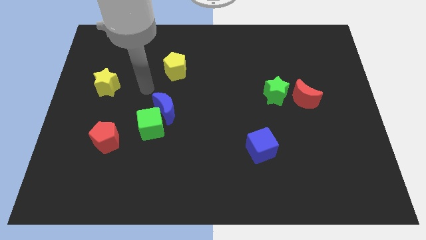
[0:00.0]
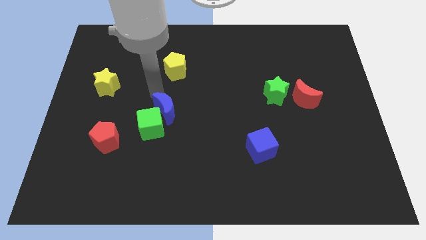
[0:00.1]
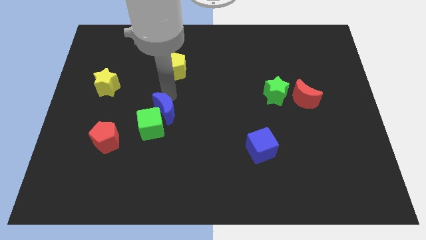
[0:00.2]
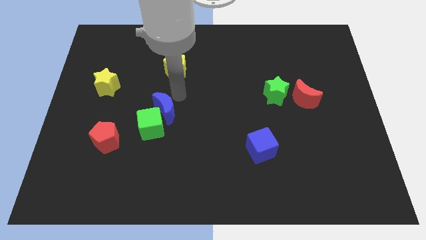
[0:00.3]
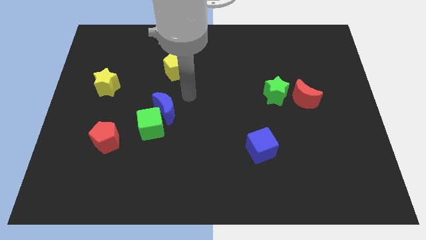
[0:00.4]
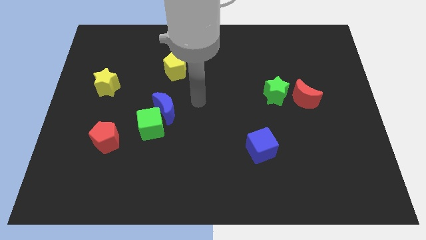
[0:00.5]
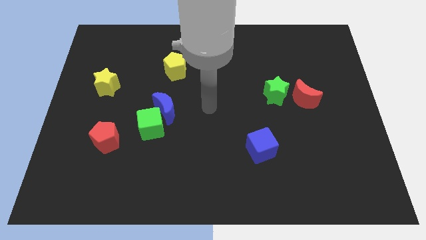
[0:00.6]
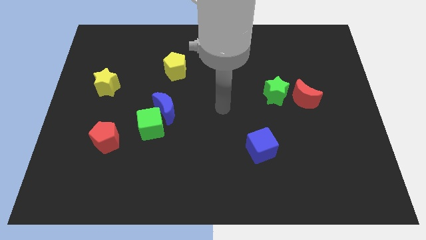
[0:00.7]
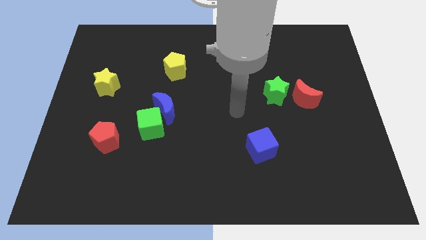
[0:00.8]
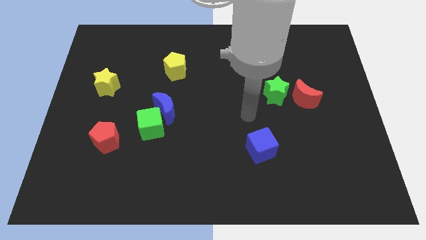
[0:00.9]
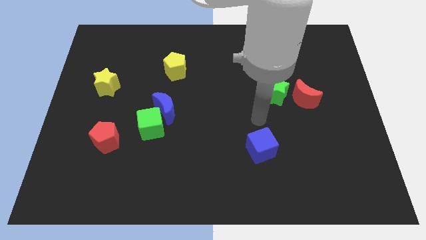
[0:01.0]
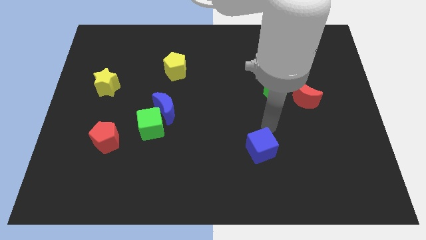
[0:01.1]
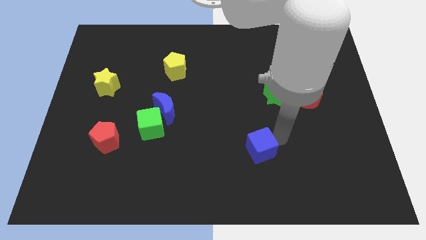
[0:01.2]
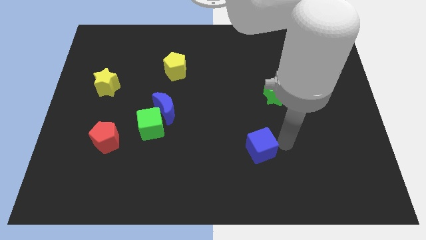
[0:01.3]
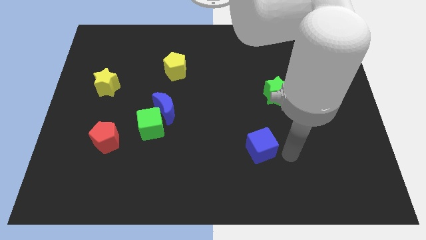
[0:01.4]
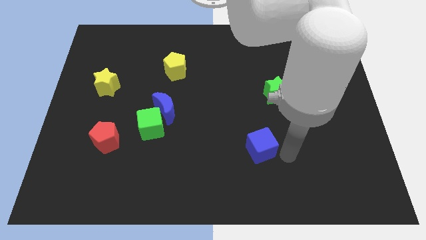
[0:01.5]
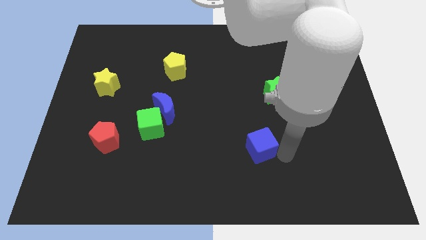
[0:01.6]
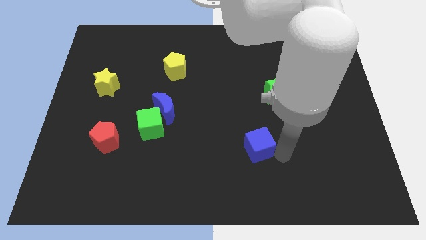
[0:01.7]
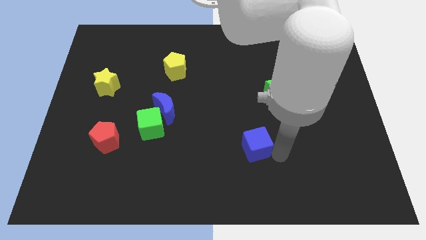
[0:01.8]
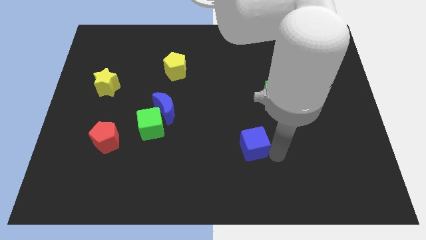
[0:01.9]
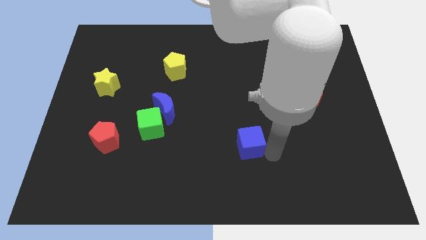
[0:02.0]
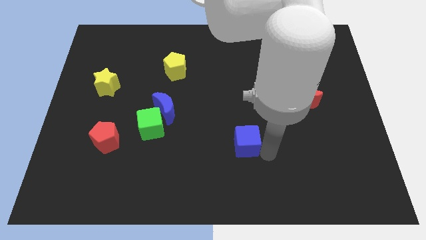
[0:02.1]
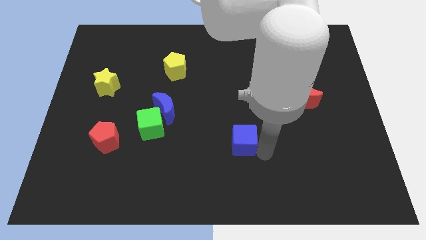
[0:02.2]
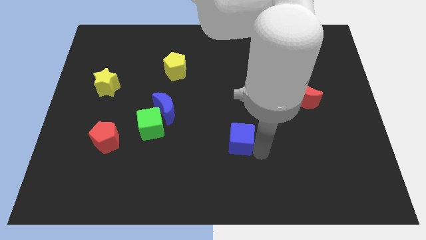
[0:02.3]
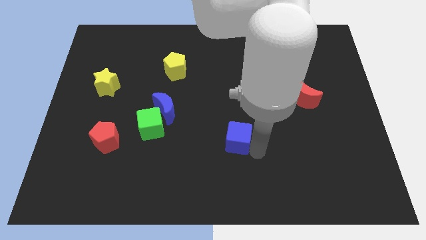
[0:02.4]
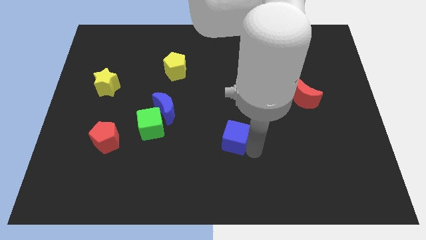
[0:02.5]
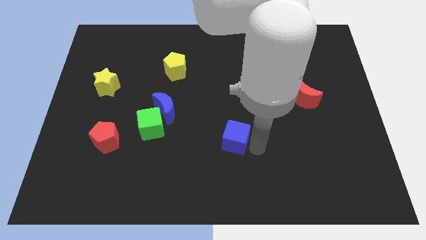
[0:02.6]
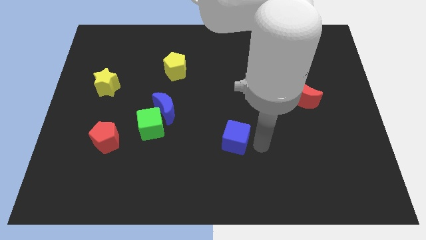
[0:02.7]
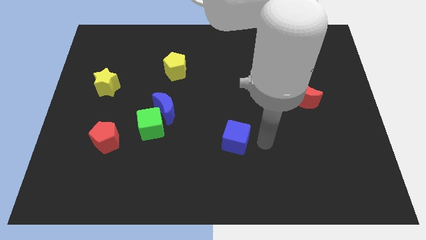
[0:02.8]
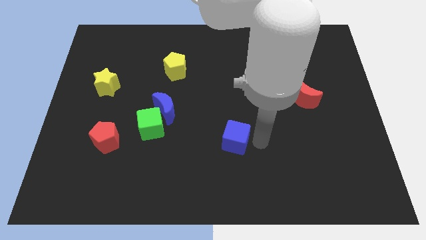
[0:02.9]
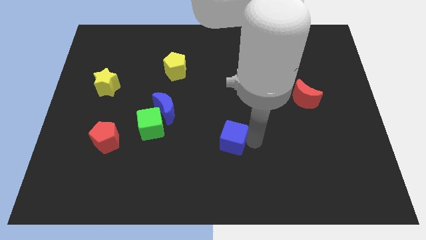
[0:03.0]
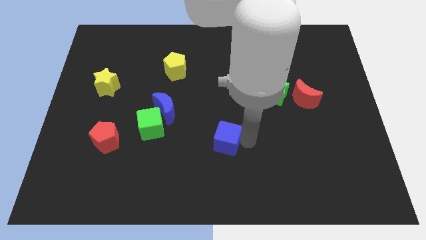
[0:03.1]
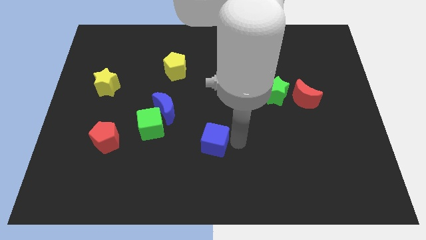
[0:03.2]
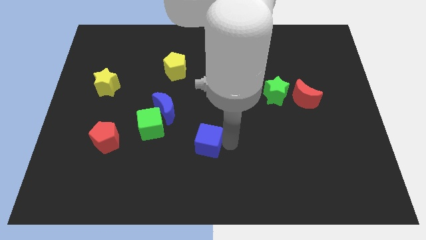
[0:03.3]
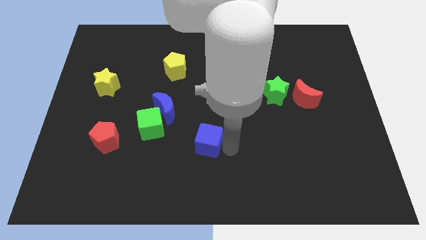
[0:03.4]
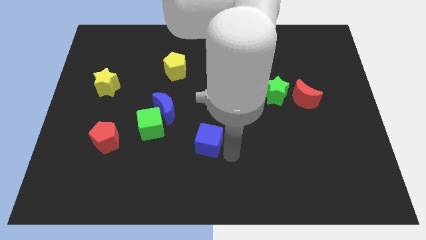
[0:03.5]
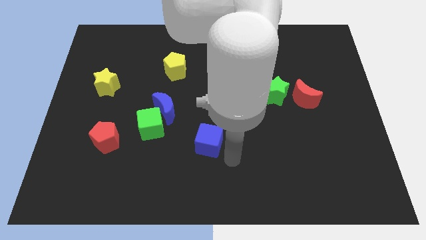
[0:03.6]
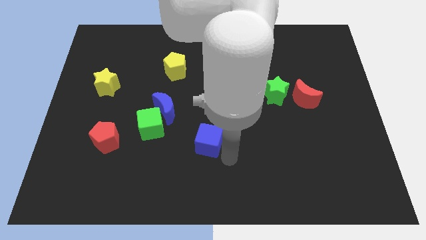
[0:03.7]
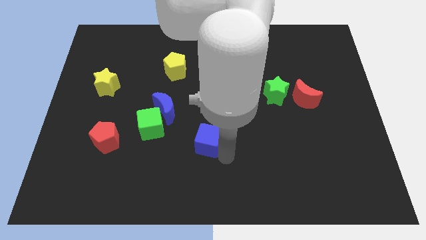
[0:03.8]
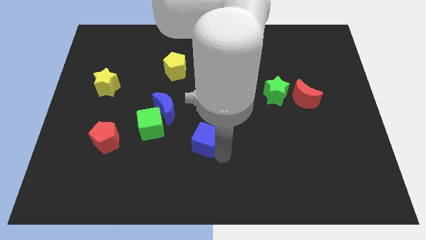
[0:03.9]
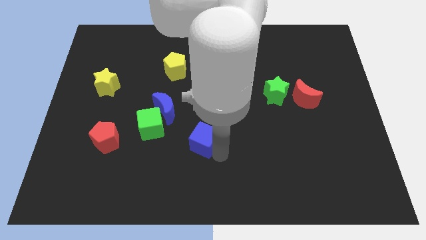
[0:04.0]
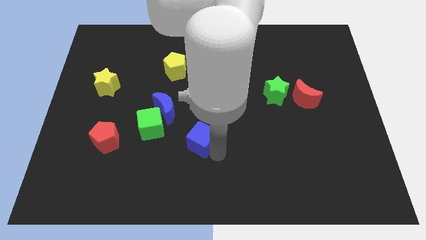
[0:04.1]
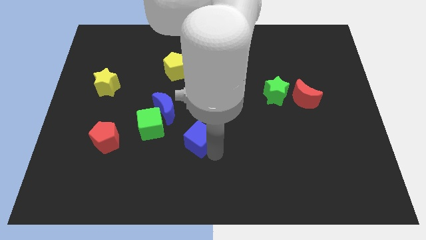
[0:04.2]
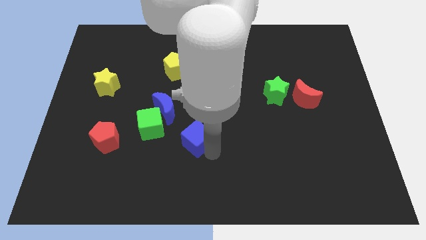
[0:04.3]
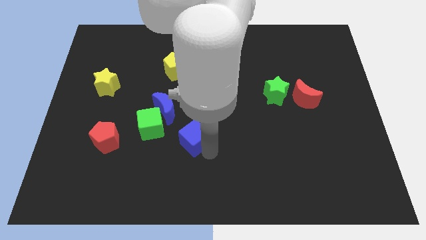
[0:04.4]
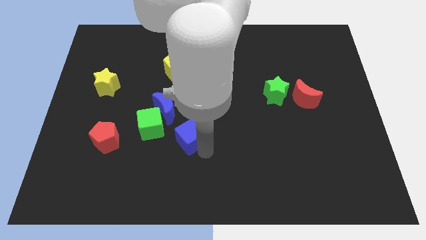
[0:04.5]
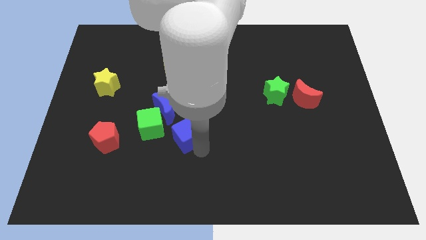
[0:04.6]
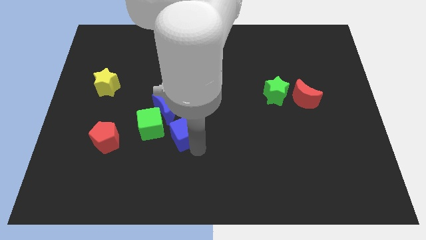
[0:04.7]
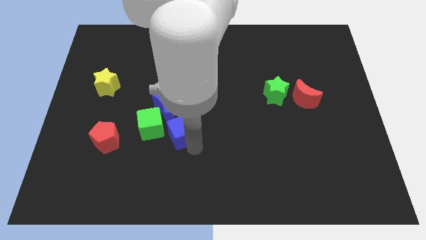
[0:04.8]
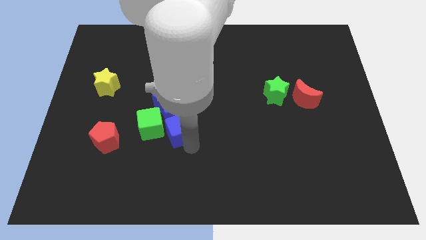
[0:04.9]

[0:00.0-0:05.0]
push the blue cube to the right of the red pentagon

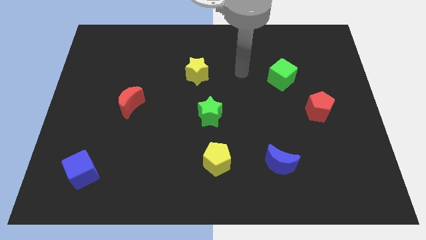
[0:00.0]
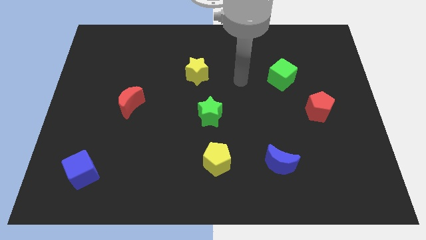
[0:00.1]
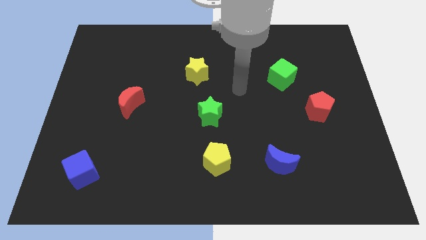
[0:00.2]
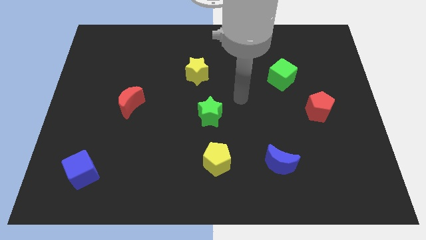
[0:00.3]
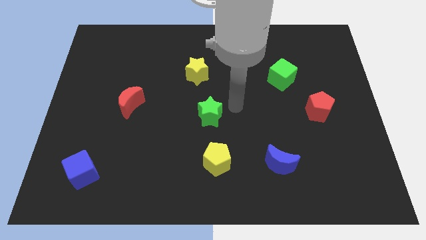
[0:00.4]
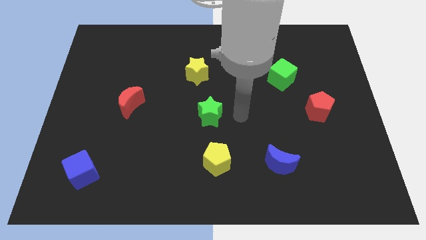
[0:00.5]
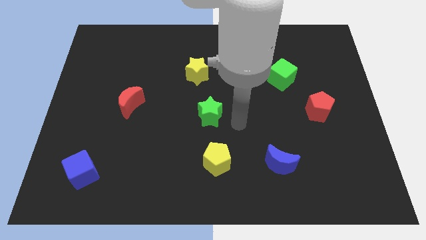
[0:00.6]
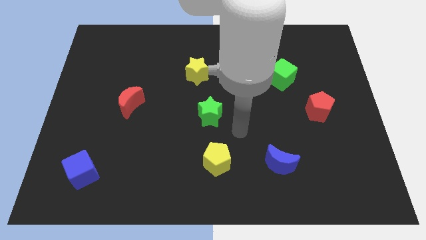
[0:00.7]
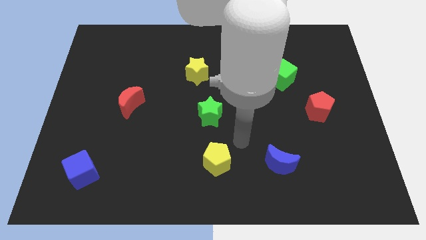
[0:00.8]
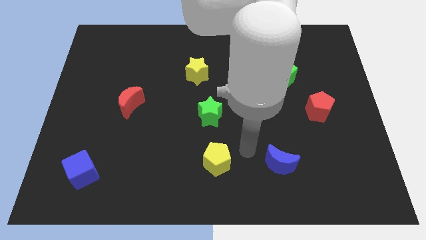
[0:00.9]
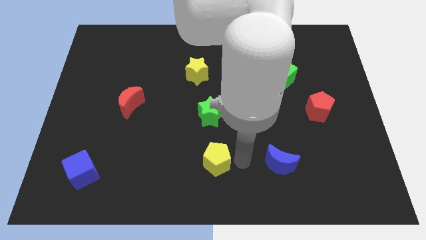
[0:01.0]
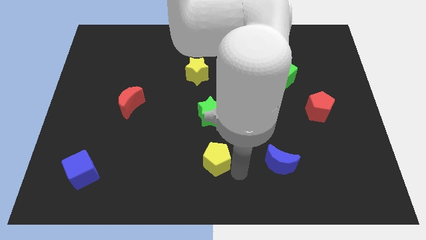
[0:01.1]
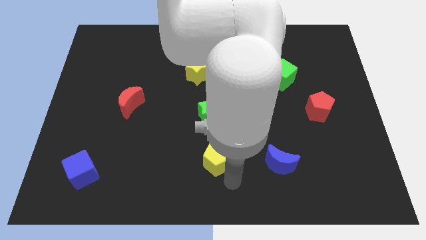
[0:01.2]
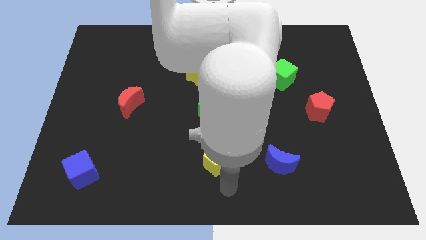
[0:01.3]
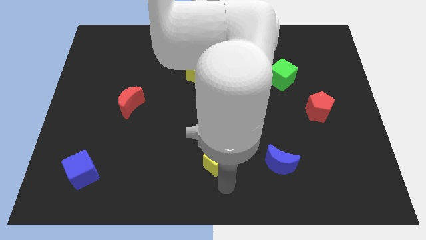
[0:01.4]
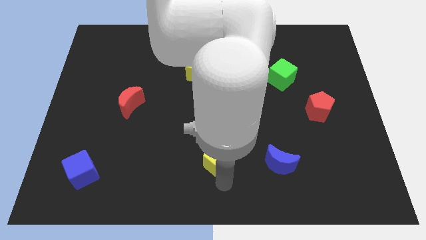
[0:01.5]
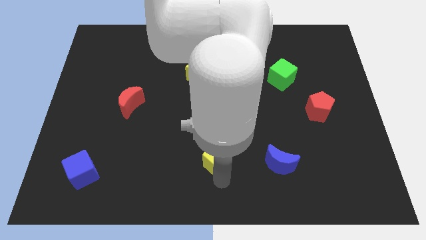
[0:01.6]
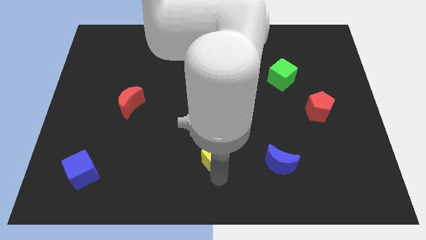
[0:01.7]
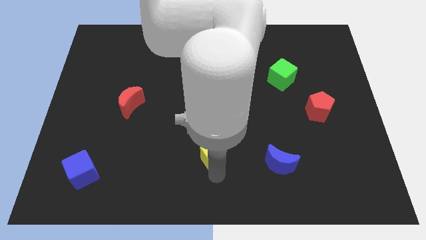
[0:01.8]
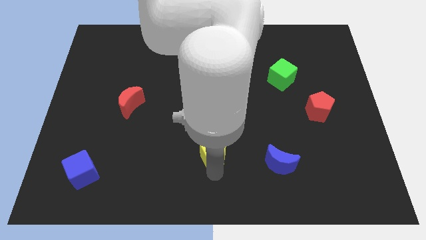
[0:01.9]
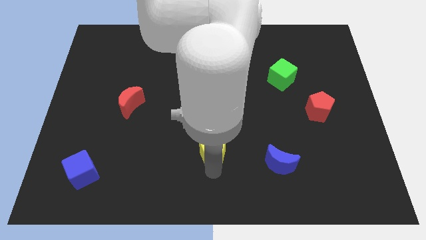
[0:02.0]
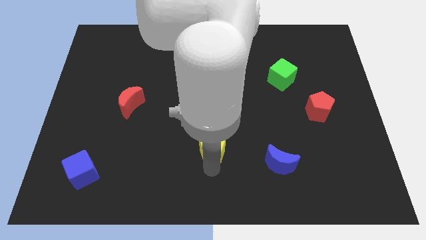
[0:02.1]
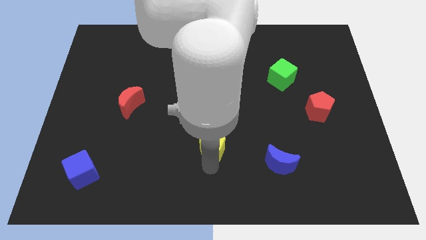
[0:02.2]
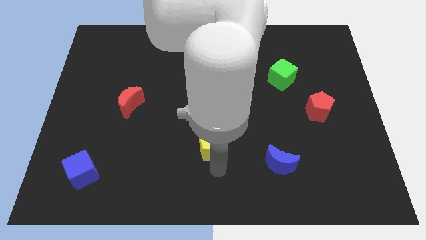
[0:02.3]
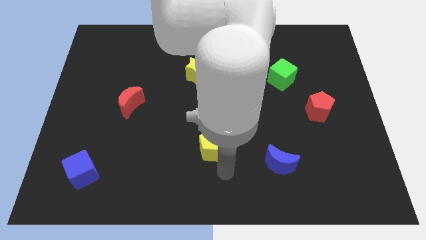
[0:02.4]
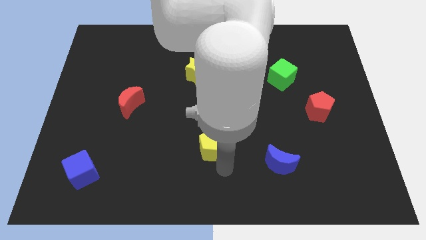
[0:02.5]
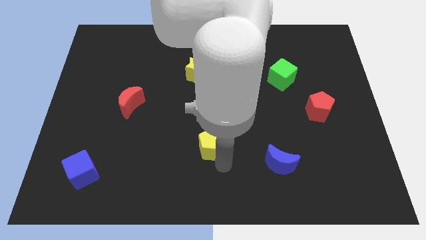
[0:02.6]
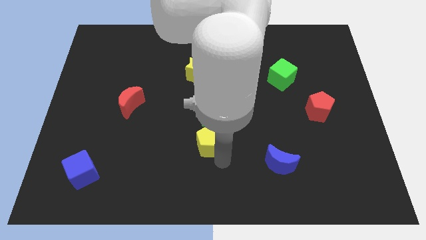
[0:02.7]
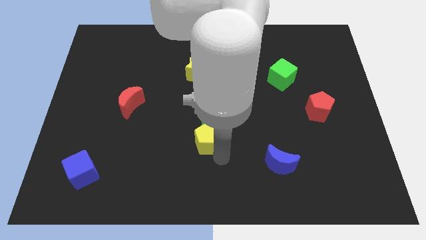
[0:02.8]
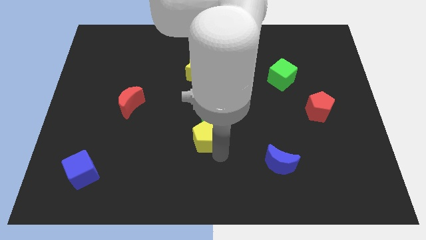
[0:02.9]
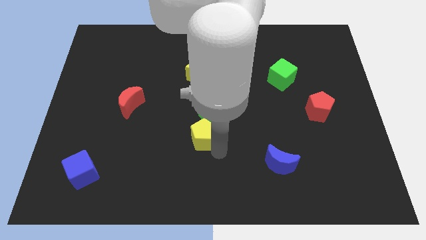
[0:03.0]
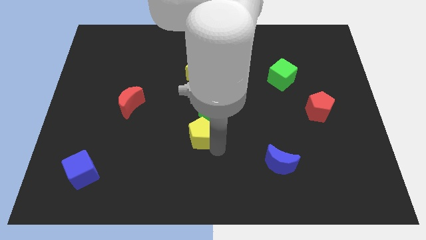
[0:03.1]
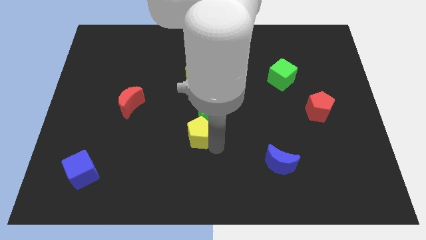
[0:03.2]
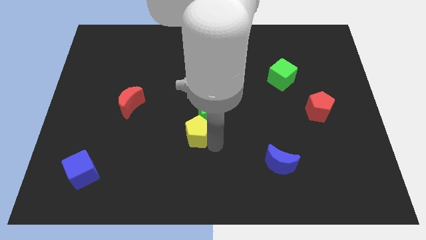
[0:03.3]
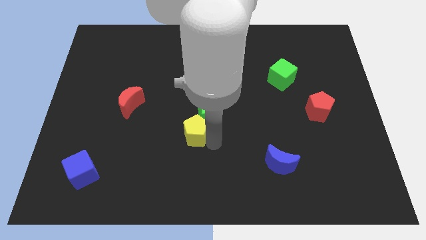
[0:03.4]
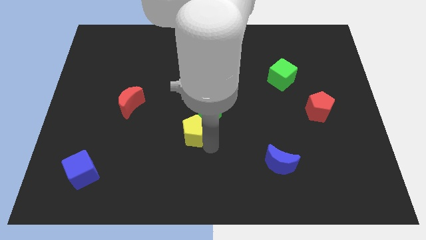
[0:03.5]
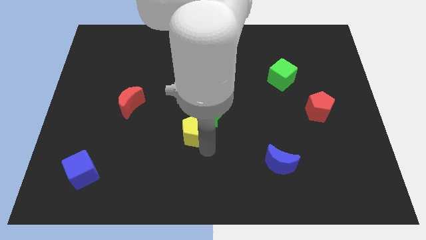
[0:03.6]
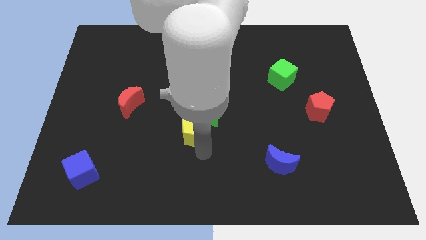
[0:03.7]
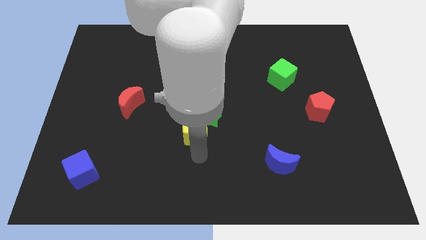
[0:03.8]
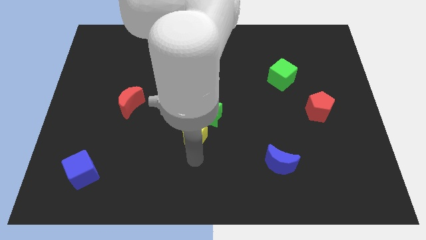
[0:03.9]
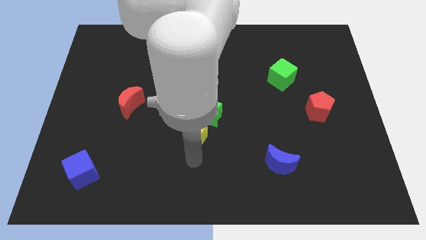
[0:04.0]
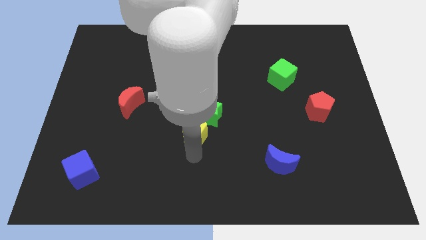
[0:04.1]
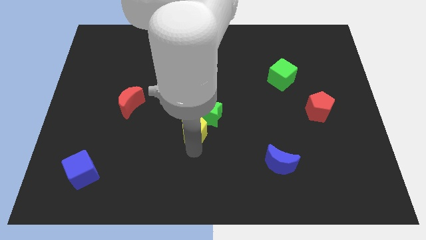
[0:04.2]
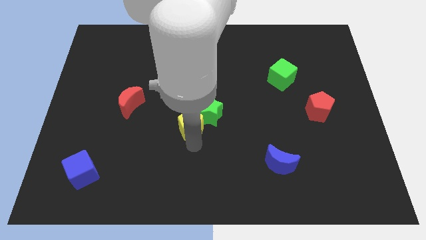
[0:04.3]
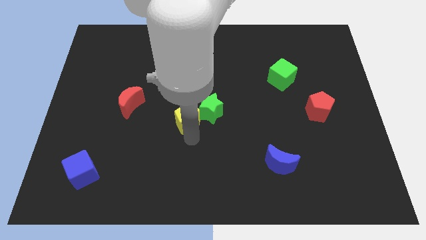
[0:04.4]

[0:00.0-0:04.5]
move the yellow pentagon to the bottom of the yellow star
